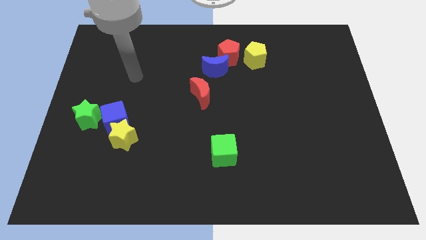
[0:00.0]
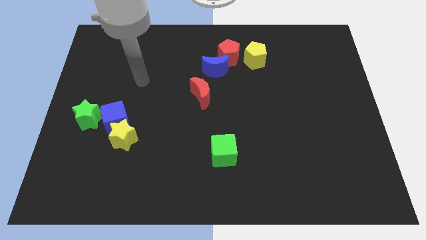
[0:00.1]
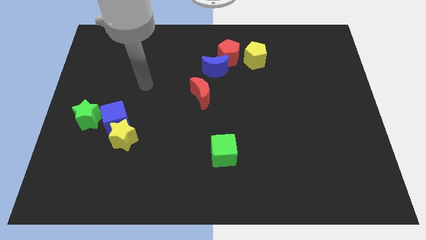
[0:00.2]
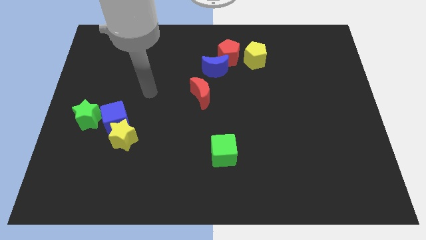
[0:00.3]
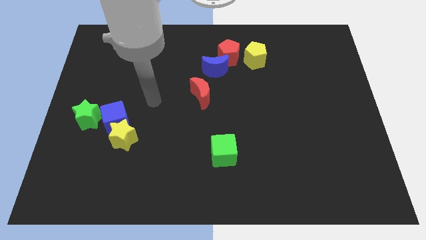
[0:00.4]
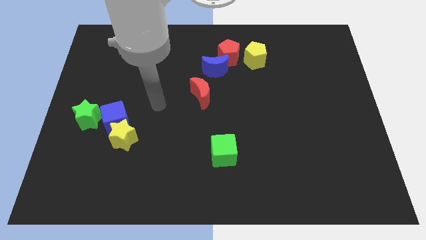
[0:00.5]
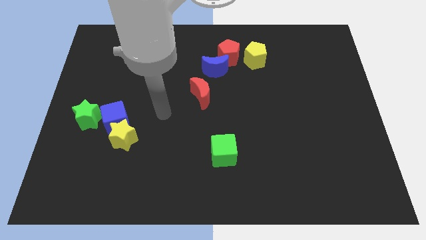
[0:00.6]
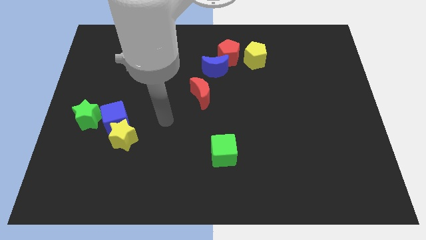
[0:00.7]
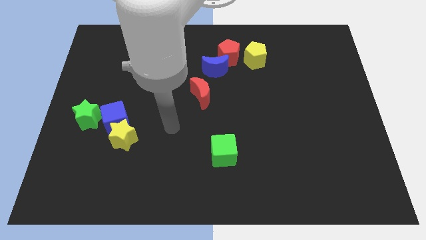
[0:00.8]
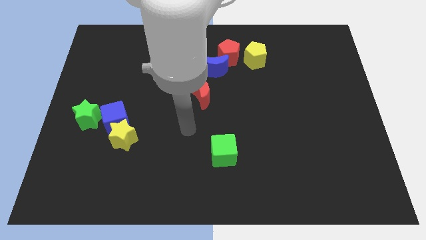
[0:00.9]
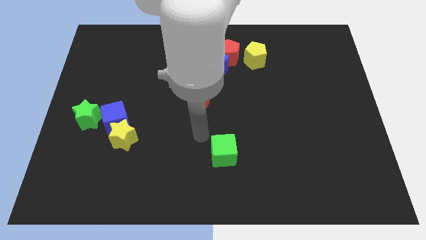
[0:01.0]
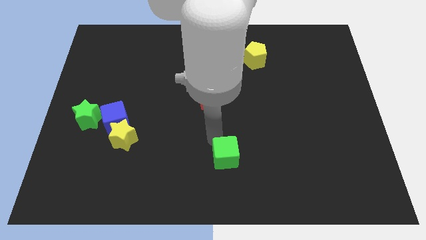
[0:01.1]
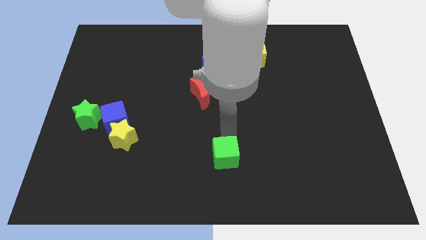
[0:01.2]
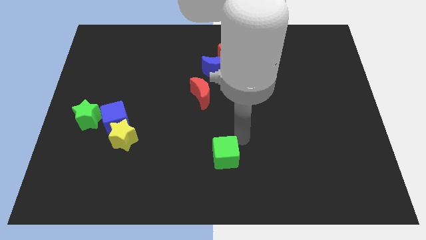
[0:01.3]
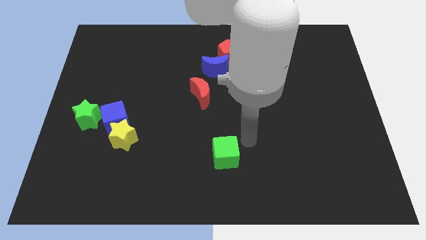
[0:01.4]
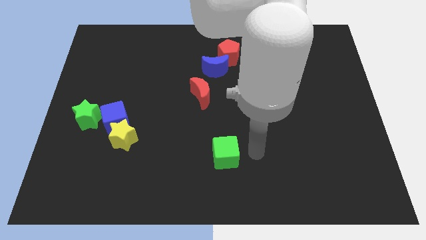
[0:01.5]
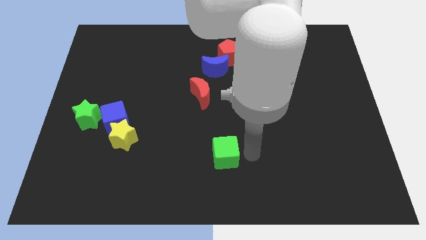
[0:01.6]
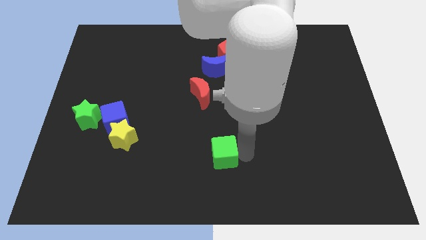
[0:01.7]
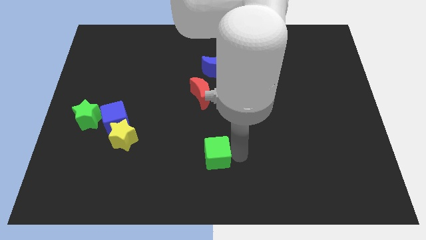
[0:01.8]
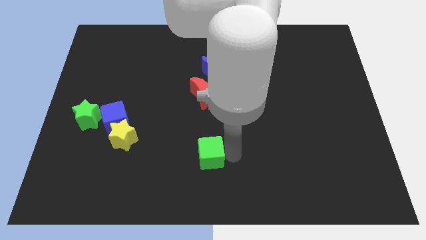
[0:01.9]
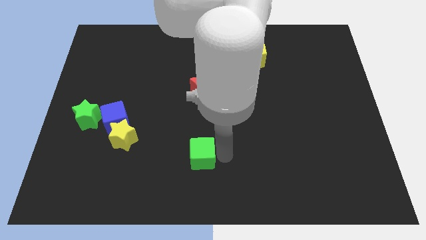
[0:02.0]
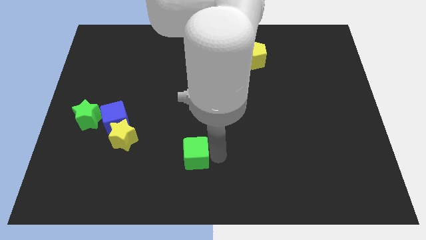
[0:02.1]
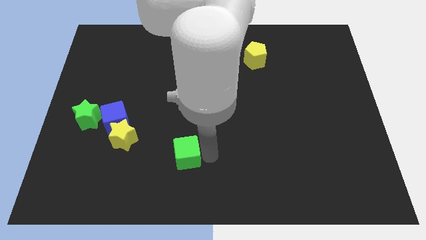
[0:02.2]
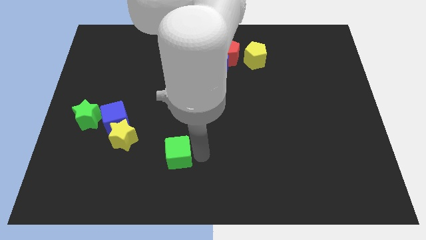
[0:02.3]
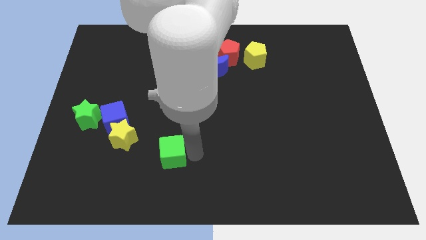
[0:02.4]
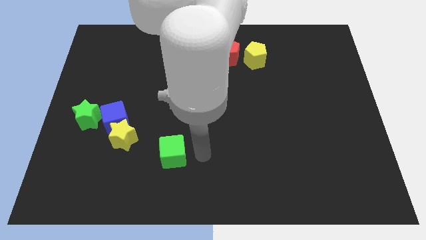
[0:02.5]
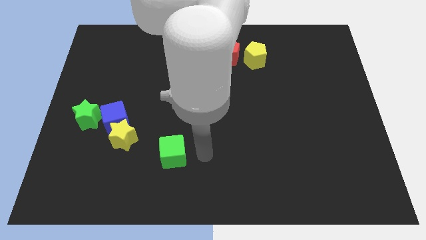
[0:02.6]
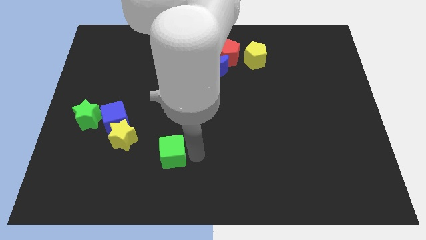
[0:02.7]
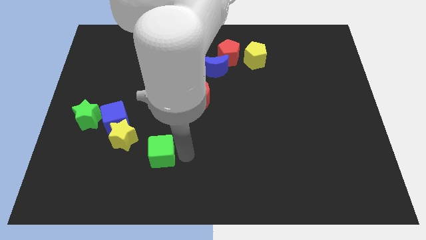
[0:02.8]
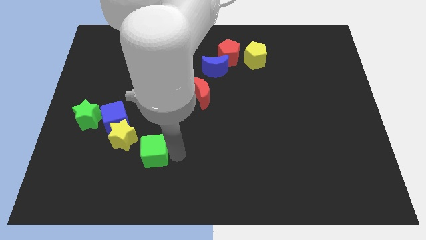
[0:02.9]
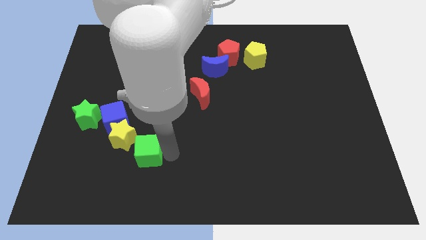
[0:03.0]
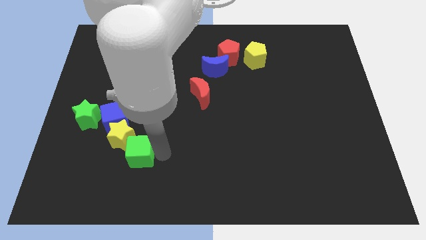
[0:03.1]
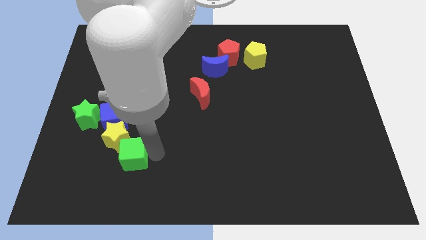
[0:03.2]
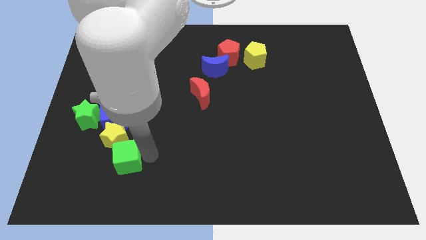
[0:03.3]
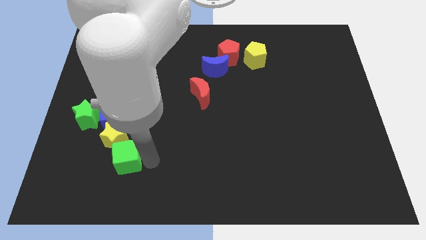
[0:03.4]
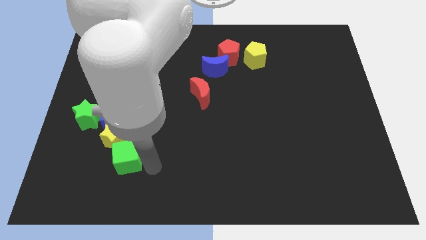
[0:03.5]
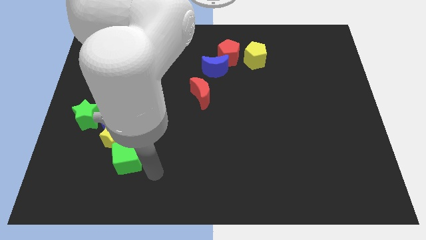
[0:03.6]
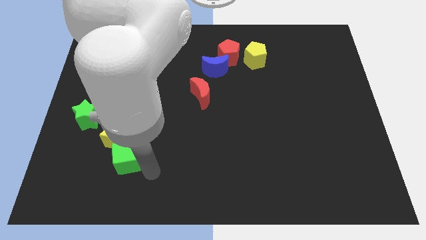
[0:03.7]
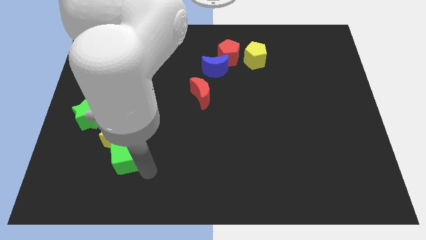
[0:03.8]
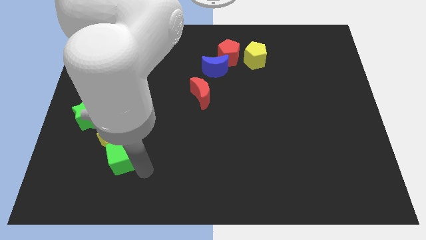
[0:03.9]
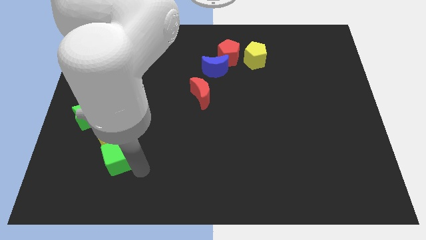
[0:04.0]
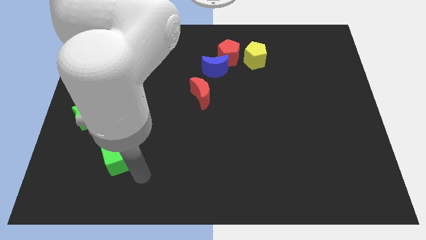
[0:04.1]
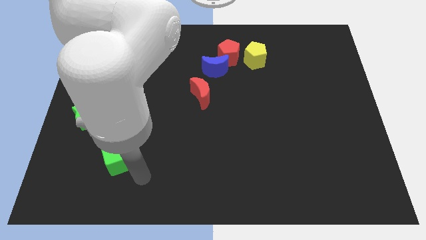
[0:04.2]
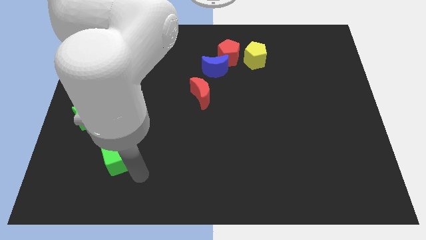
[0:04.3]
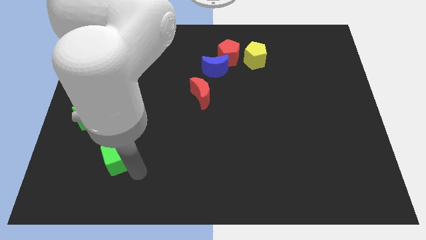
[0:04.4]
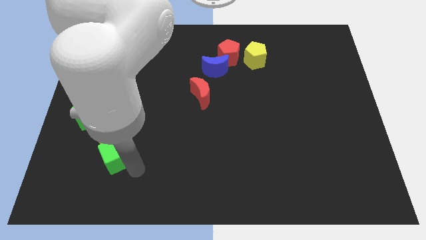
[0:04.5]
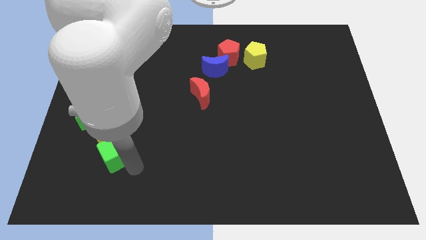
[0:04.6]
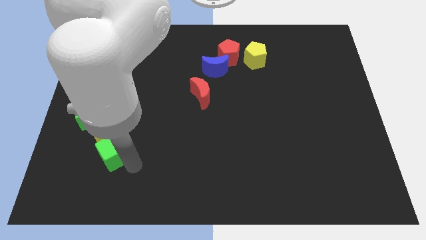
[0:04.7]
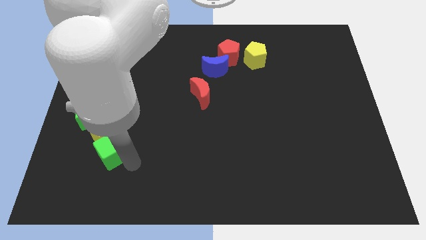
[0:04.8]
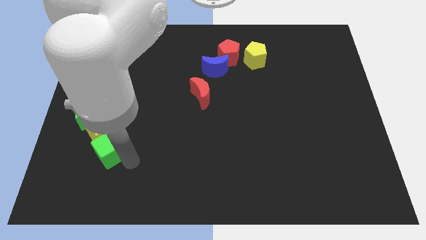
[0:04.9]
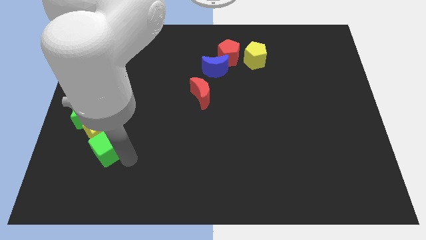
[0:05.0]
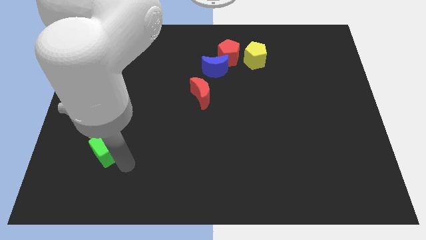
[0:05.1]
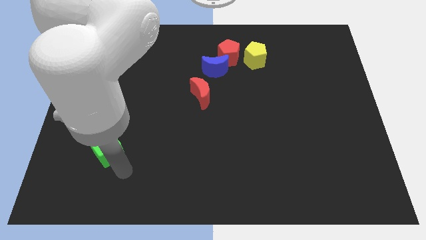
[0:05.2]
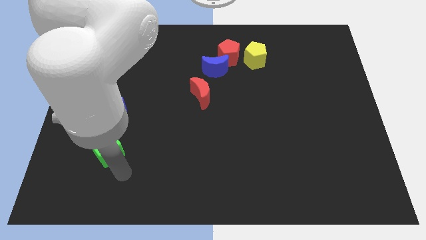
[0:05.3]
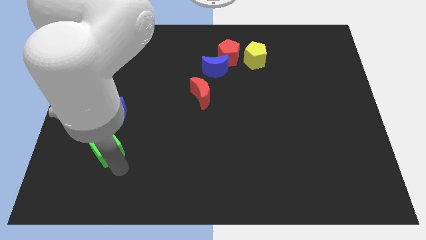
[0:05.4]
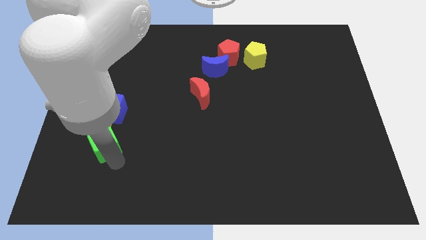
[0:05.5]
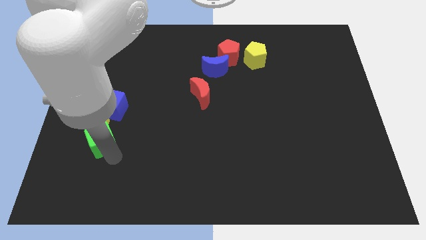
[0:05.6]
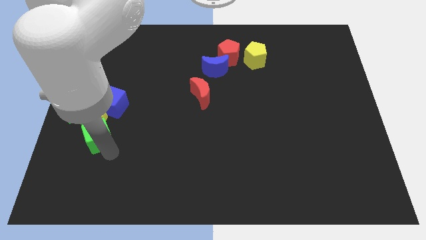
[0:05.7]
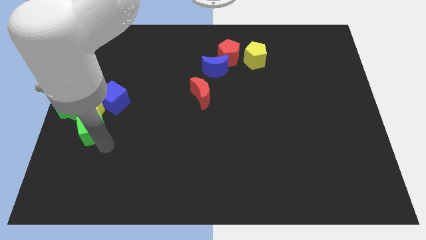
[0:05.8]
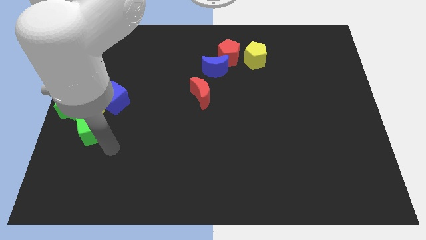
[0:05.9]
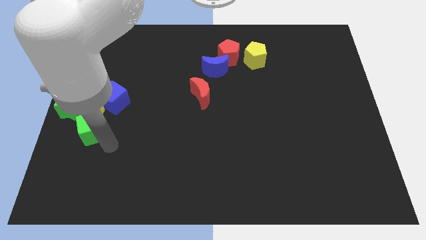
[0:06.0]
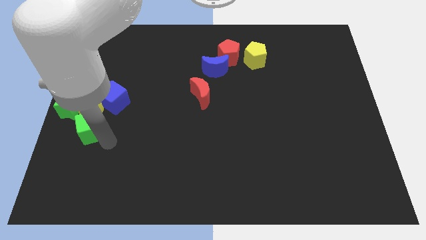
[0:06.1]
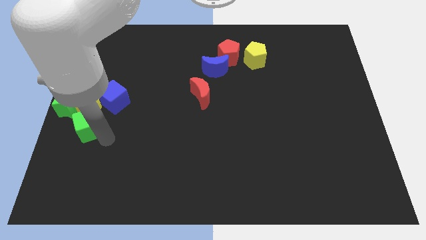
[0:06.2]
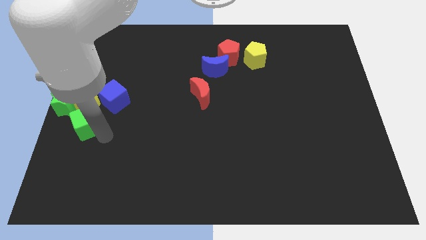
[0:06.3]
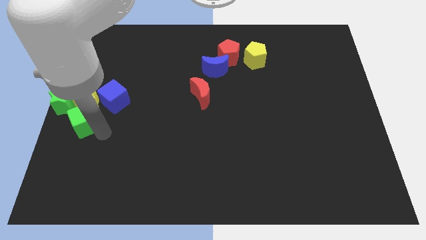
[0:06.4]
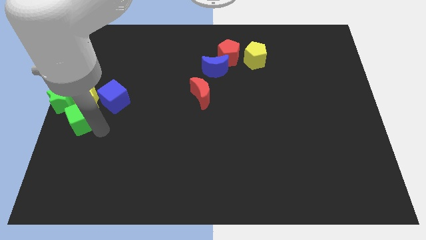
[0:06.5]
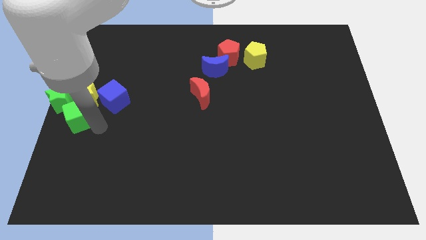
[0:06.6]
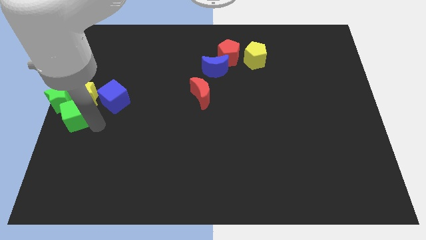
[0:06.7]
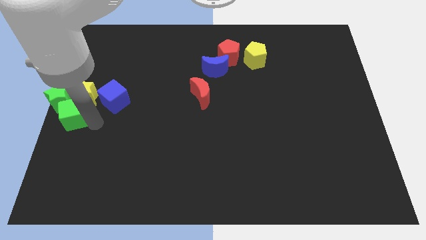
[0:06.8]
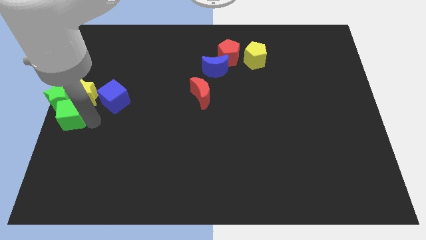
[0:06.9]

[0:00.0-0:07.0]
push the green cube next to the green star
